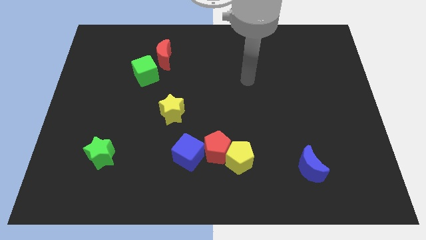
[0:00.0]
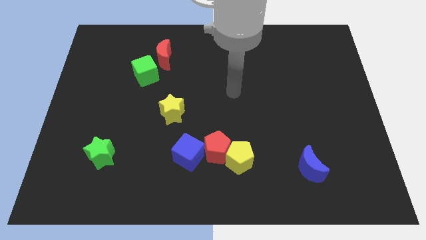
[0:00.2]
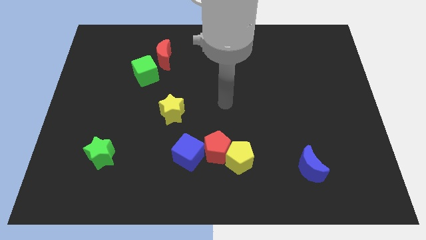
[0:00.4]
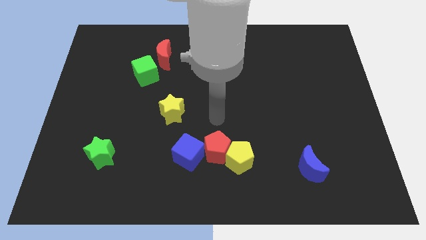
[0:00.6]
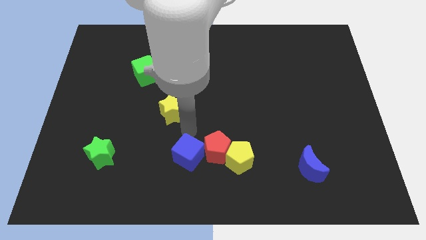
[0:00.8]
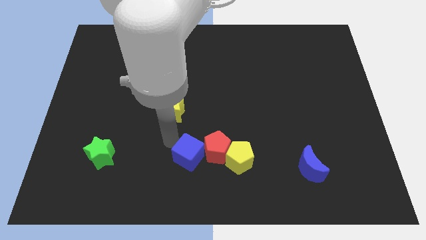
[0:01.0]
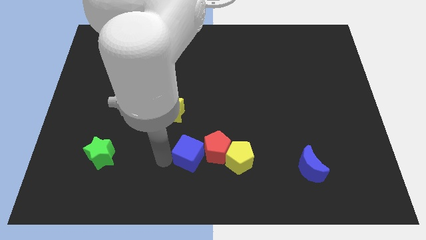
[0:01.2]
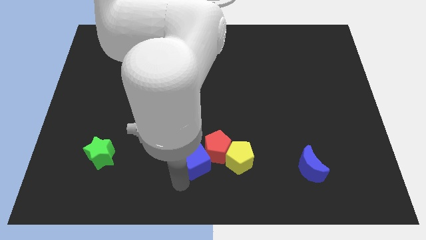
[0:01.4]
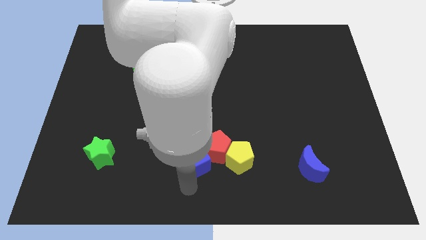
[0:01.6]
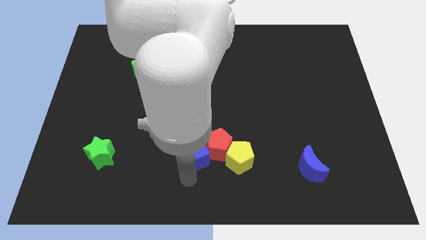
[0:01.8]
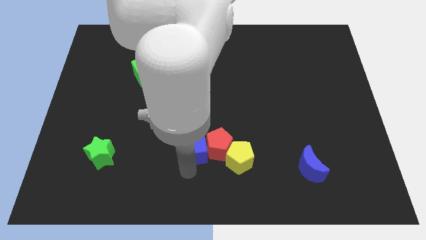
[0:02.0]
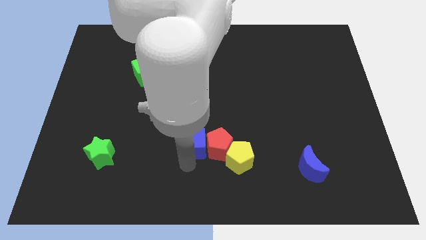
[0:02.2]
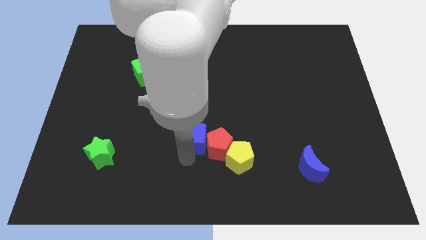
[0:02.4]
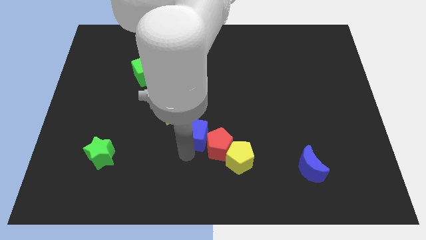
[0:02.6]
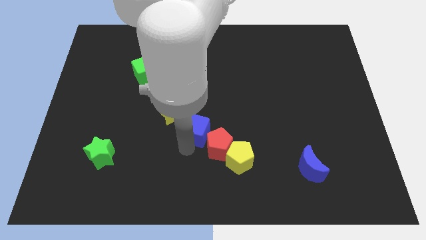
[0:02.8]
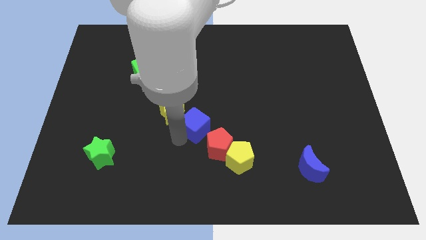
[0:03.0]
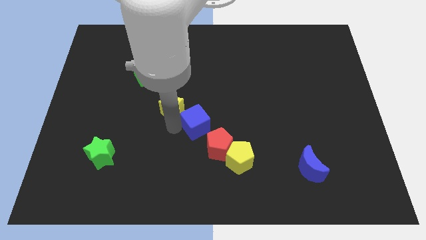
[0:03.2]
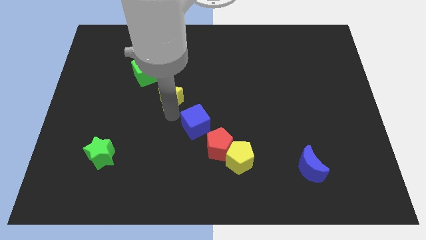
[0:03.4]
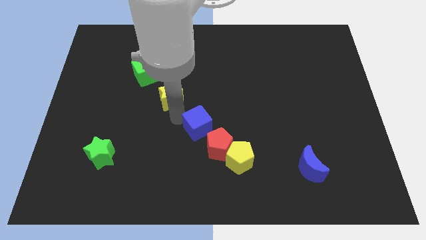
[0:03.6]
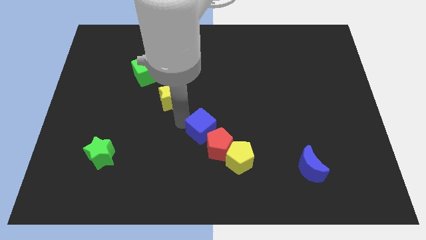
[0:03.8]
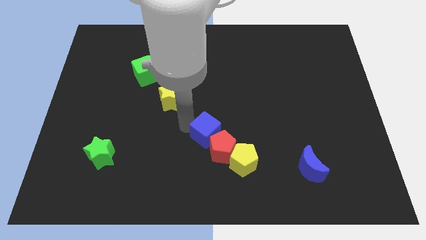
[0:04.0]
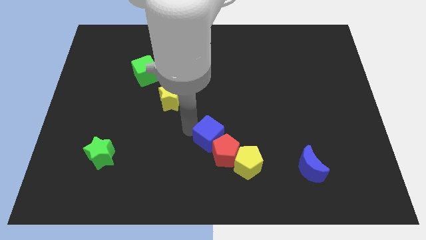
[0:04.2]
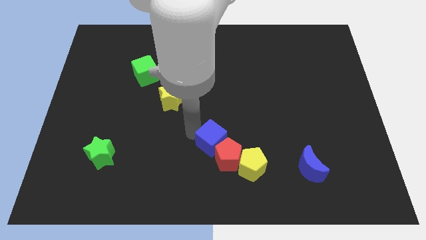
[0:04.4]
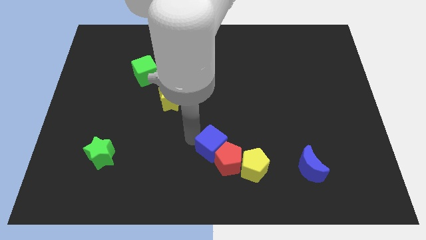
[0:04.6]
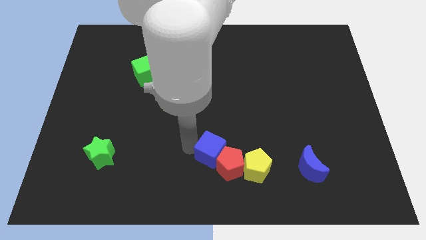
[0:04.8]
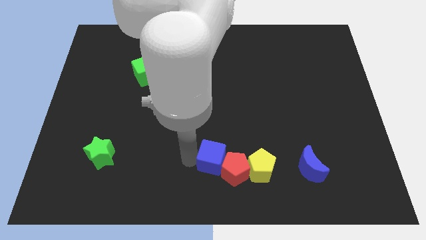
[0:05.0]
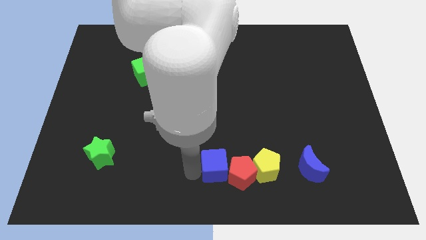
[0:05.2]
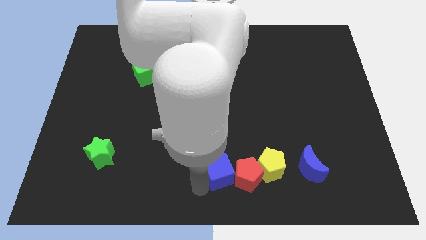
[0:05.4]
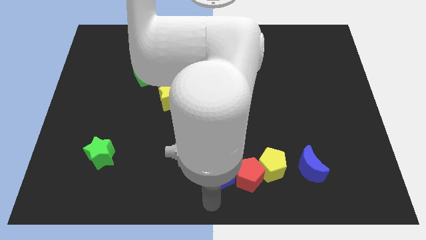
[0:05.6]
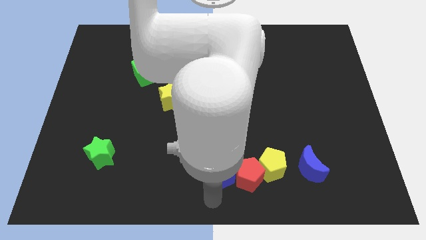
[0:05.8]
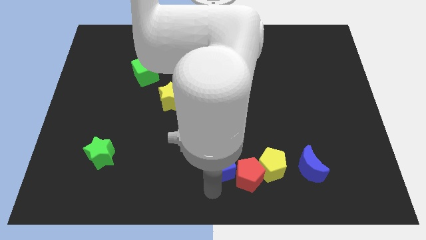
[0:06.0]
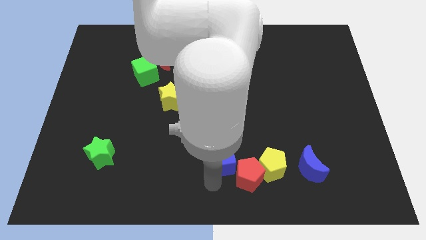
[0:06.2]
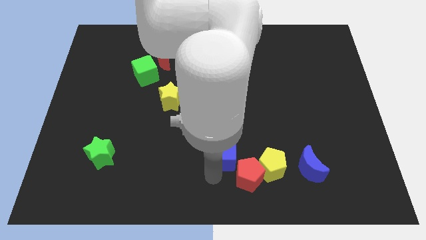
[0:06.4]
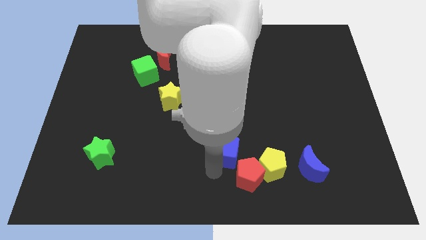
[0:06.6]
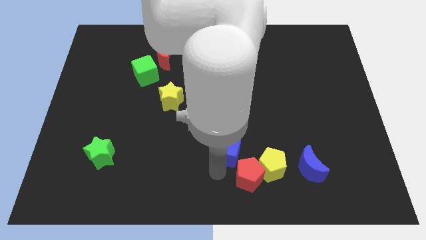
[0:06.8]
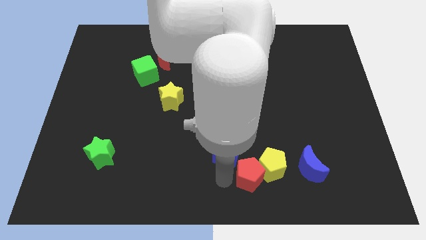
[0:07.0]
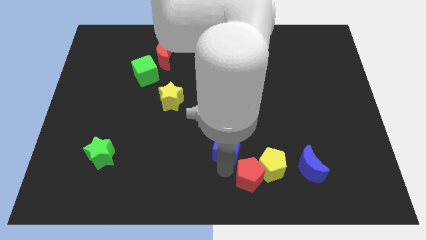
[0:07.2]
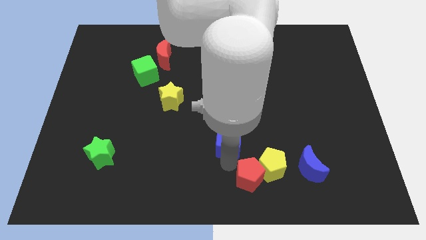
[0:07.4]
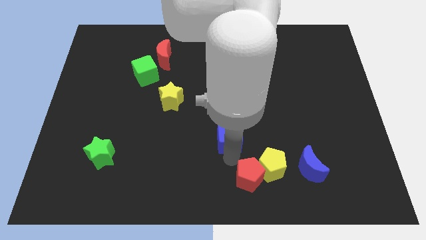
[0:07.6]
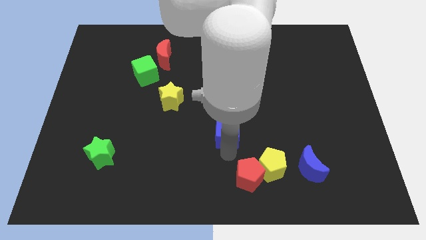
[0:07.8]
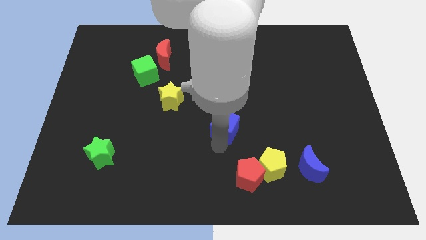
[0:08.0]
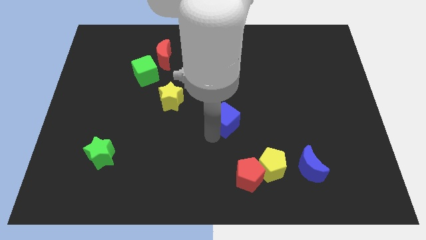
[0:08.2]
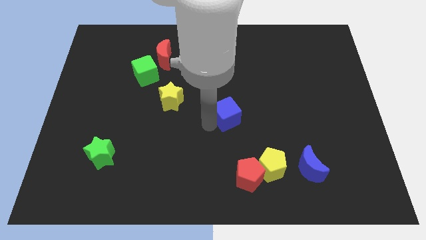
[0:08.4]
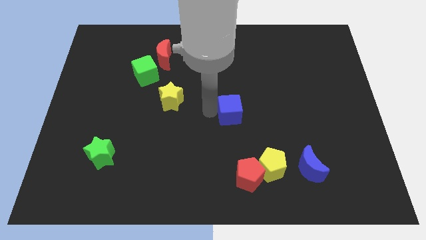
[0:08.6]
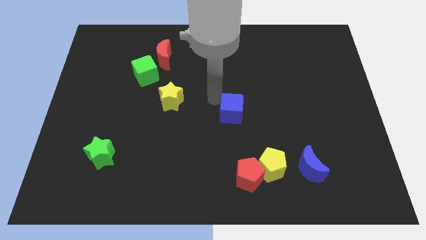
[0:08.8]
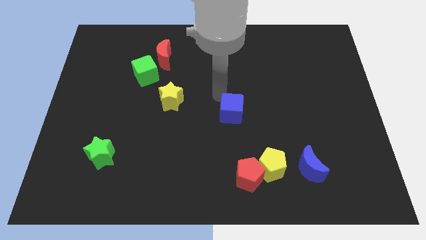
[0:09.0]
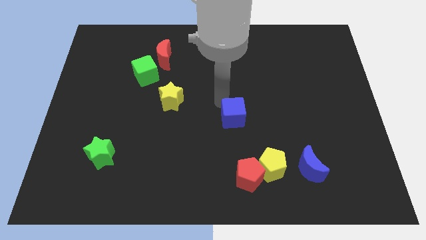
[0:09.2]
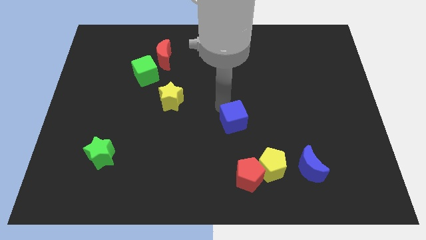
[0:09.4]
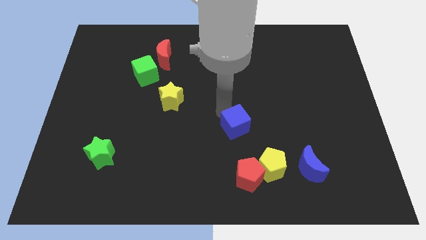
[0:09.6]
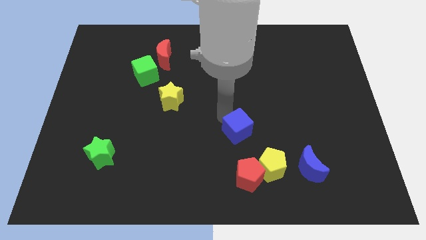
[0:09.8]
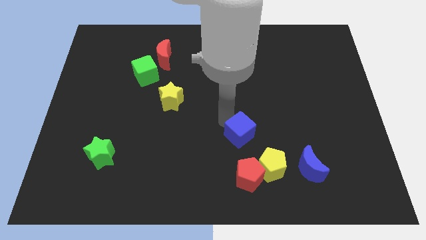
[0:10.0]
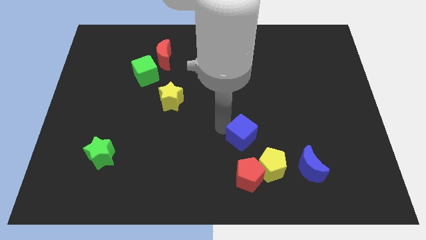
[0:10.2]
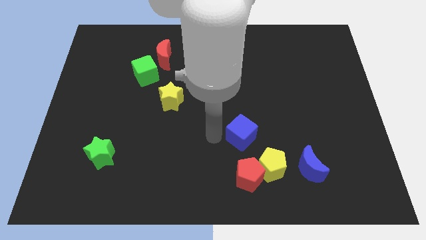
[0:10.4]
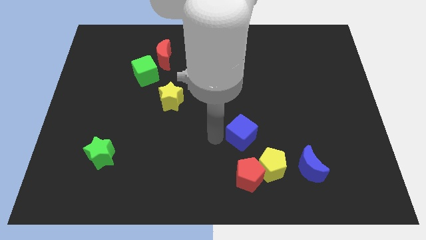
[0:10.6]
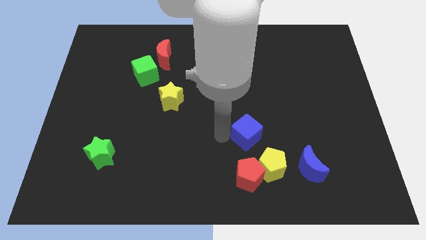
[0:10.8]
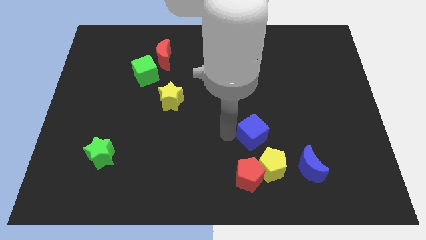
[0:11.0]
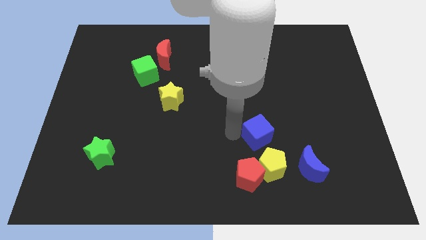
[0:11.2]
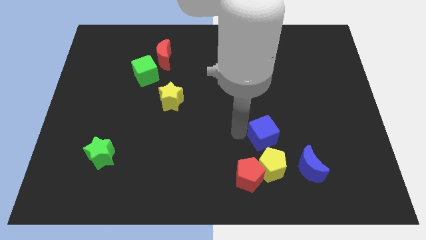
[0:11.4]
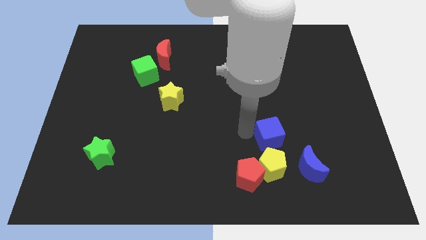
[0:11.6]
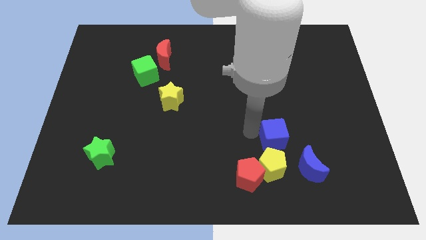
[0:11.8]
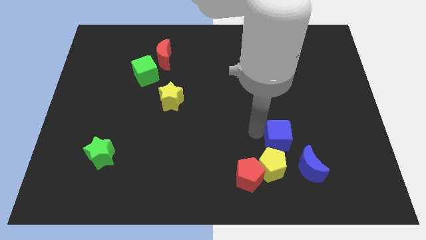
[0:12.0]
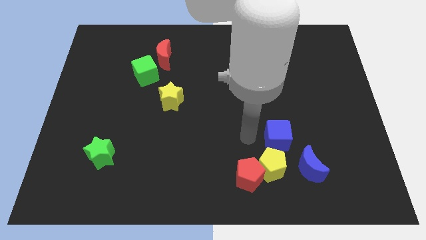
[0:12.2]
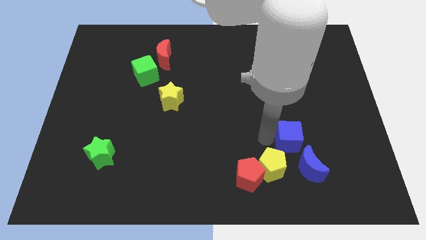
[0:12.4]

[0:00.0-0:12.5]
push the blue cube right

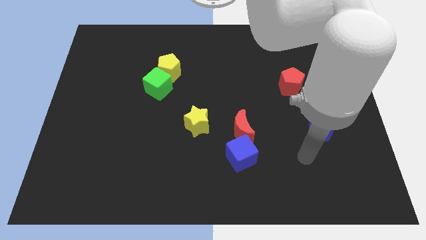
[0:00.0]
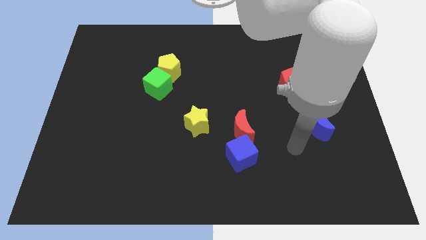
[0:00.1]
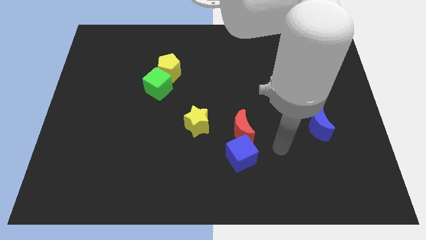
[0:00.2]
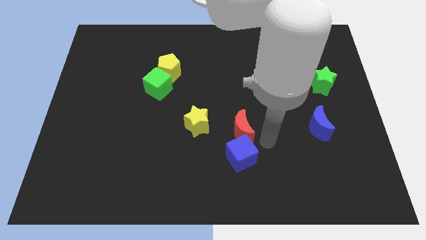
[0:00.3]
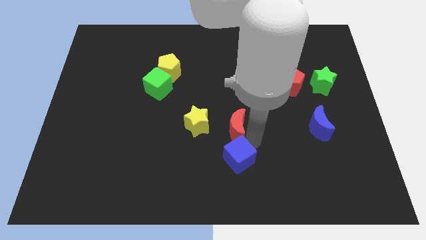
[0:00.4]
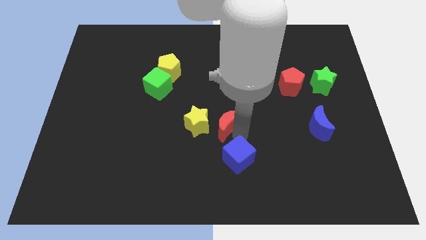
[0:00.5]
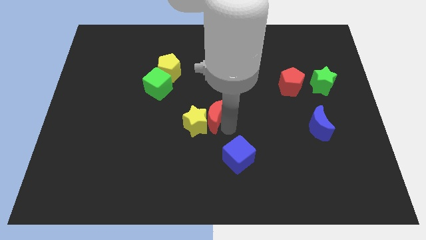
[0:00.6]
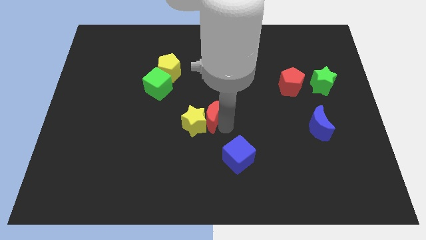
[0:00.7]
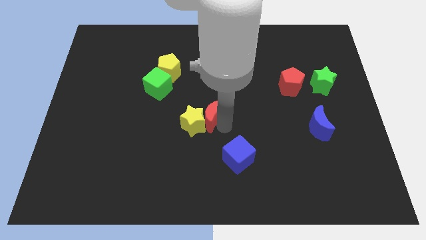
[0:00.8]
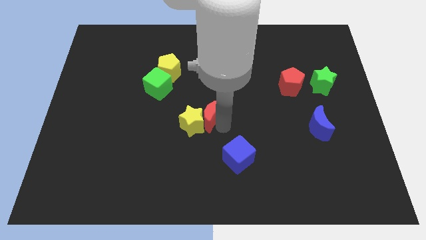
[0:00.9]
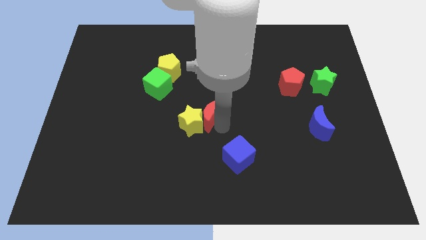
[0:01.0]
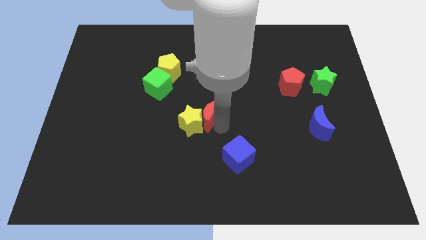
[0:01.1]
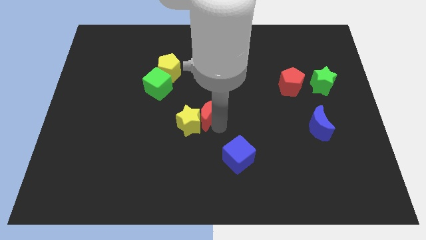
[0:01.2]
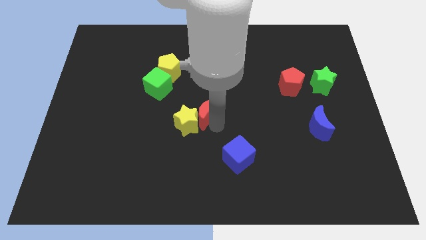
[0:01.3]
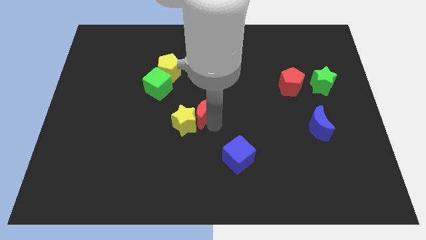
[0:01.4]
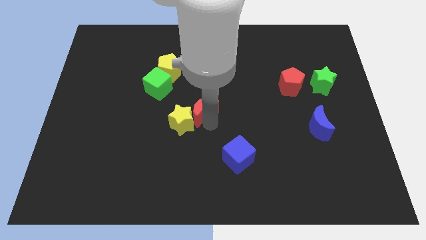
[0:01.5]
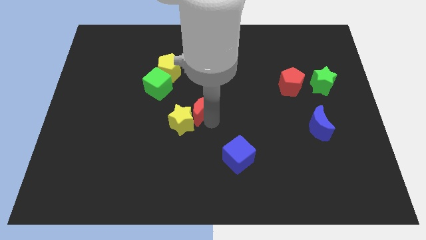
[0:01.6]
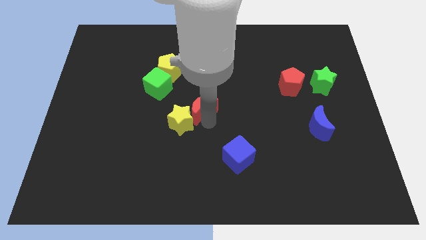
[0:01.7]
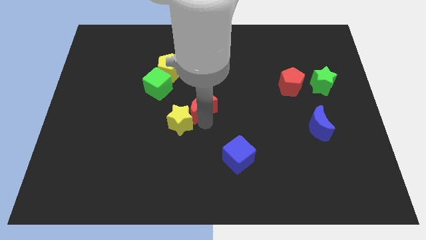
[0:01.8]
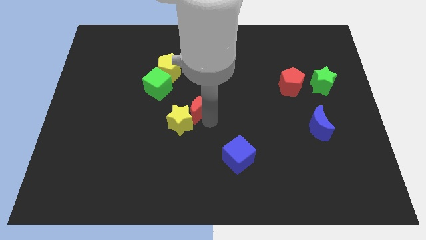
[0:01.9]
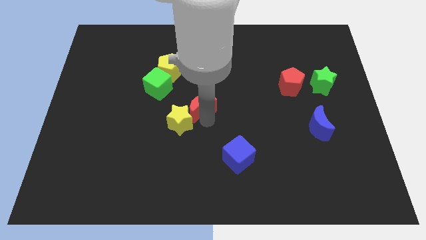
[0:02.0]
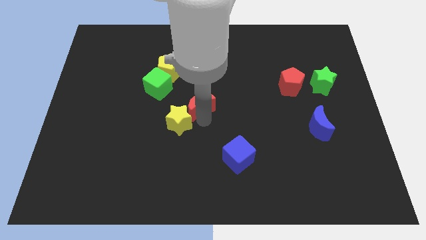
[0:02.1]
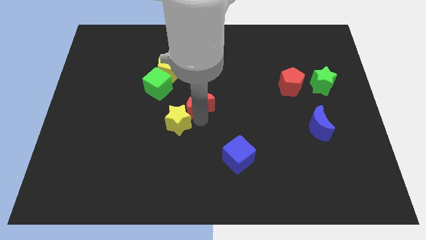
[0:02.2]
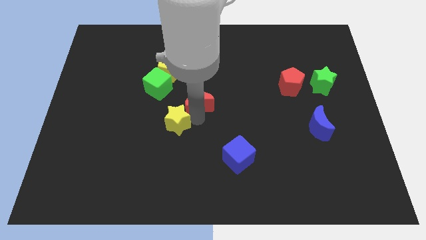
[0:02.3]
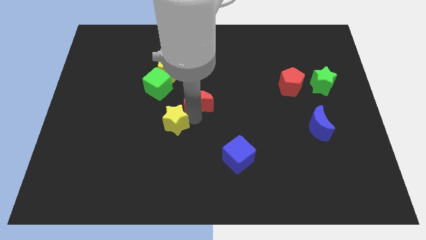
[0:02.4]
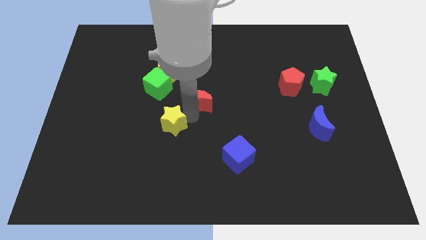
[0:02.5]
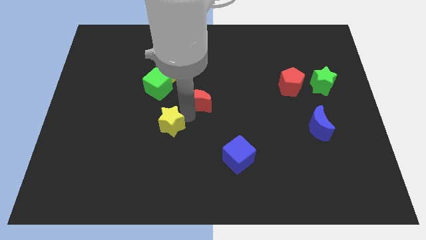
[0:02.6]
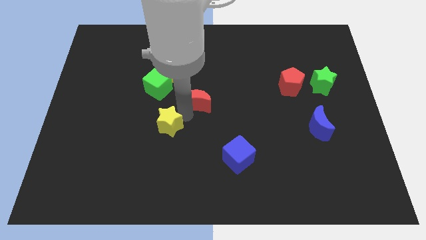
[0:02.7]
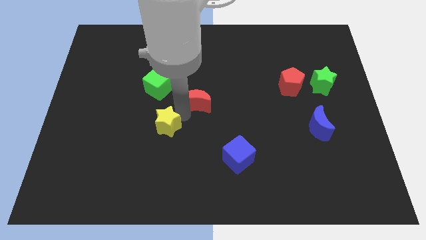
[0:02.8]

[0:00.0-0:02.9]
slightly slide the yellow star to the left
